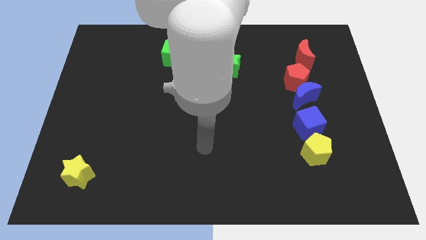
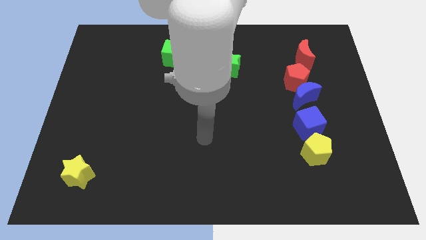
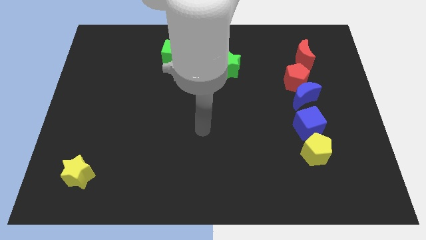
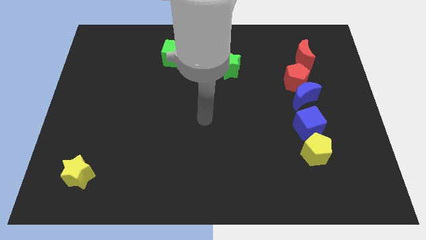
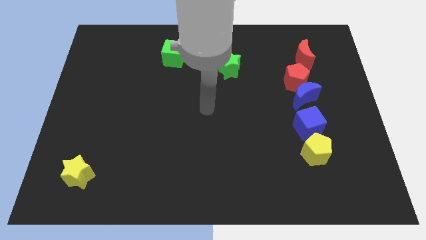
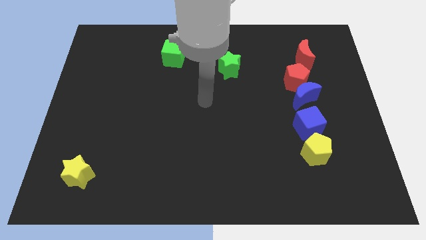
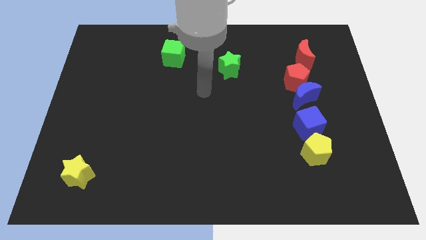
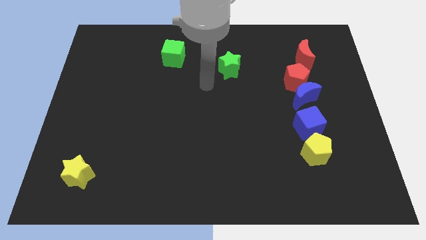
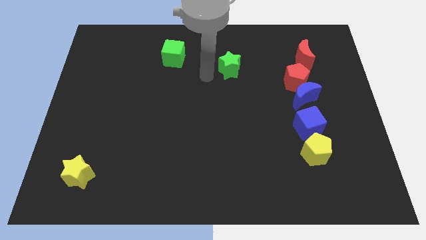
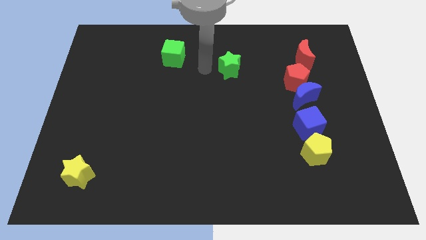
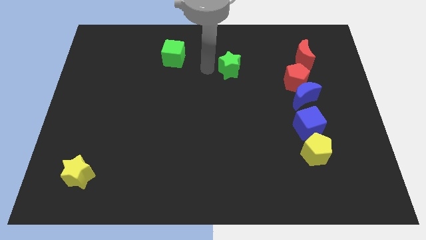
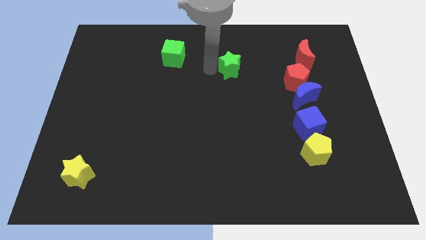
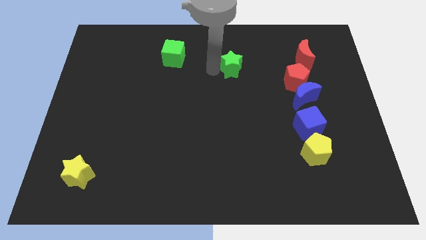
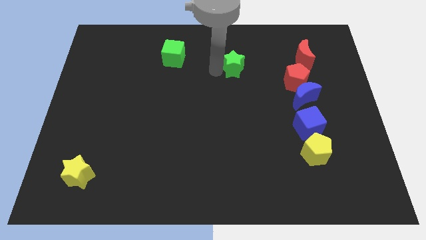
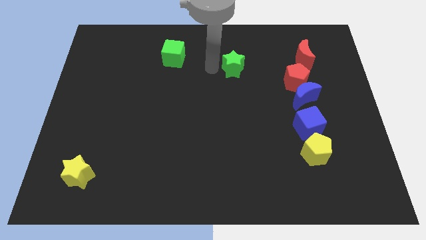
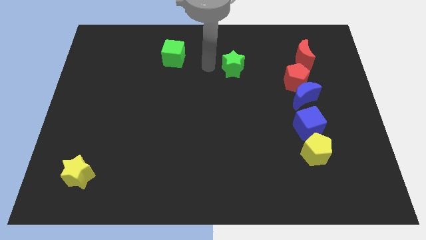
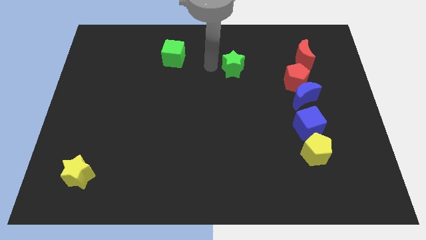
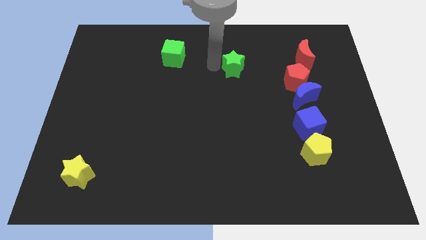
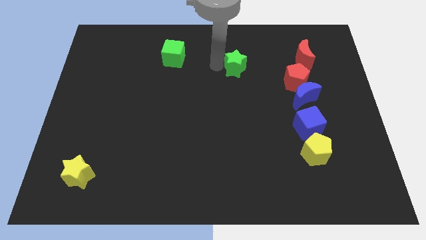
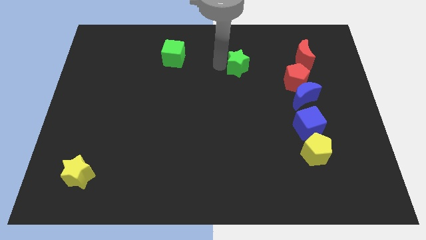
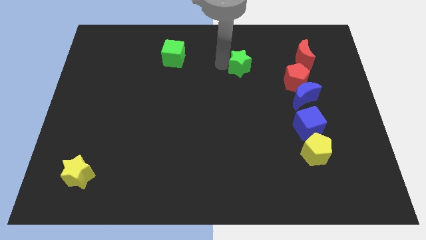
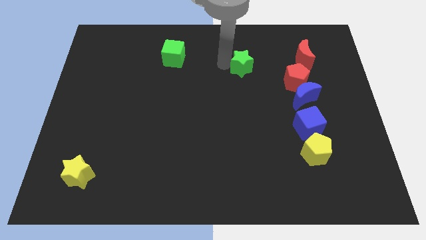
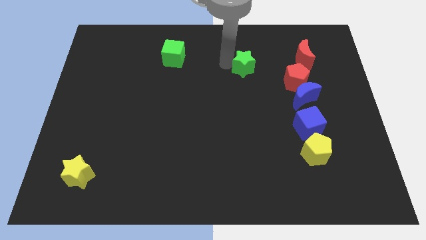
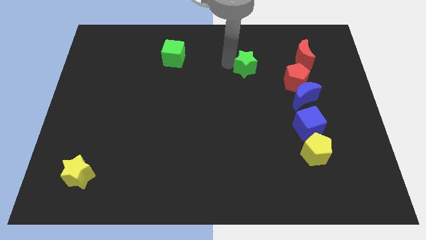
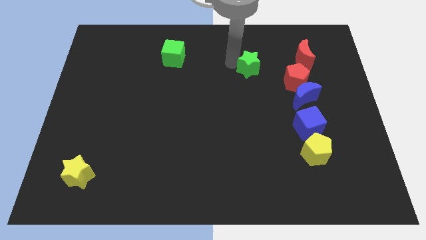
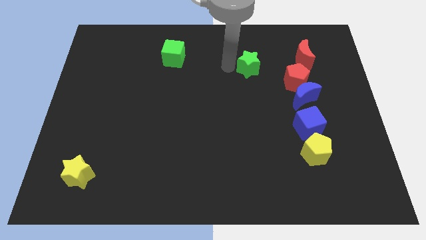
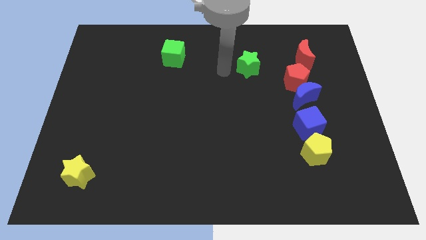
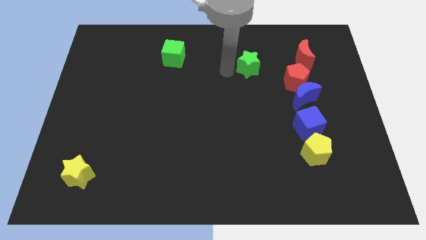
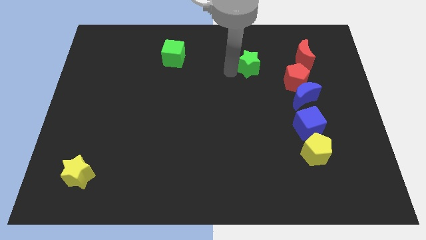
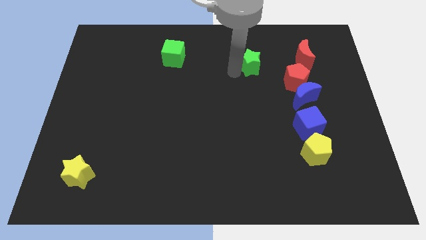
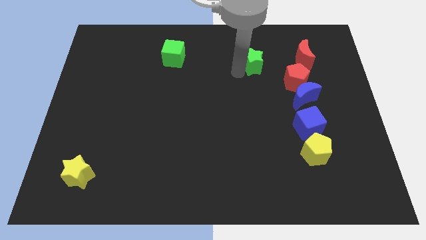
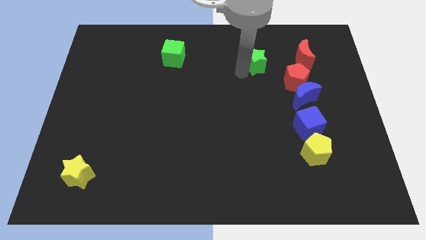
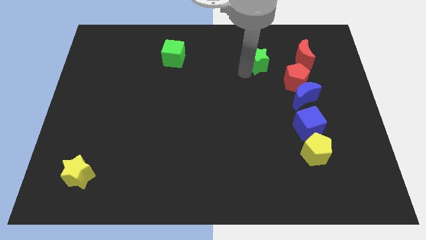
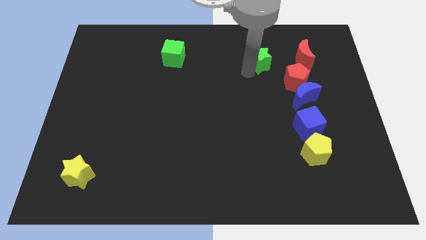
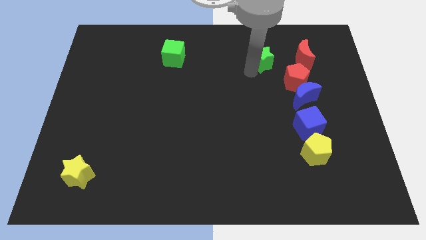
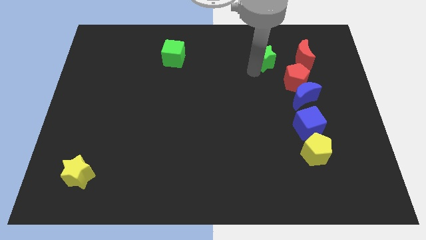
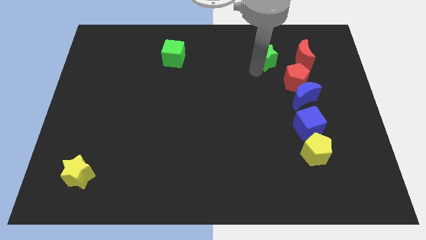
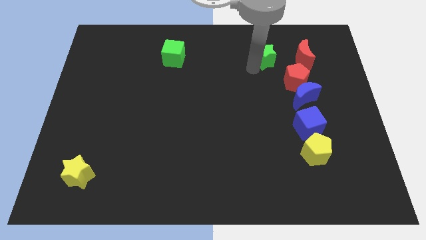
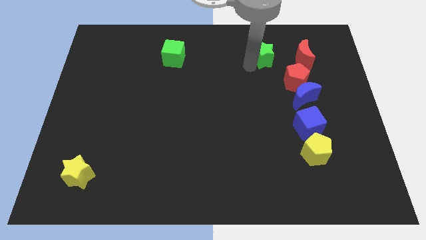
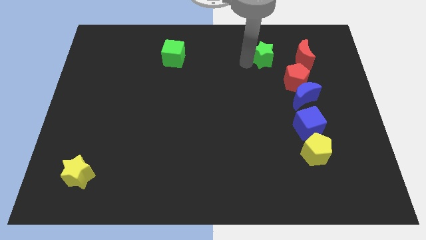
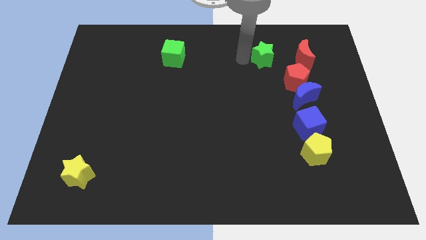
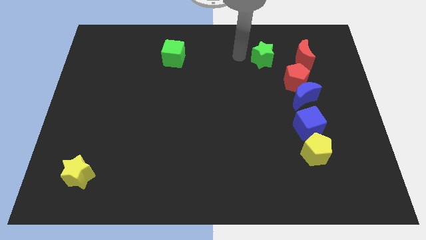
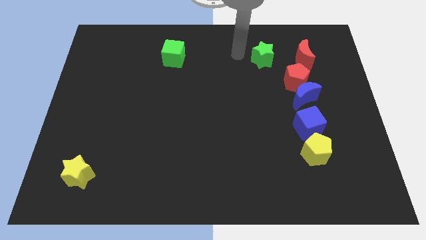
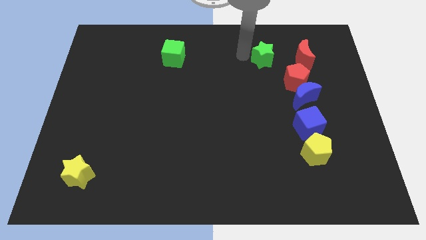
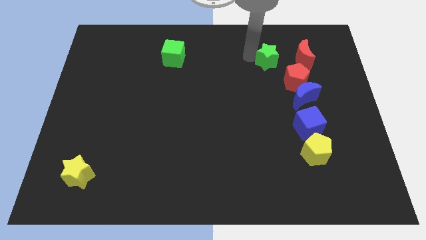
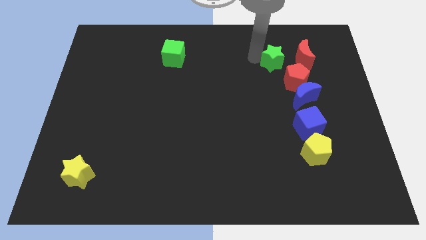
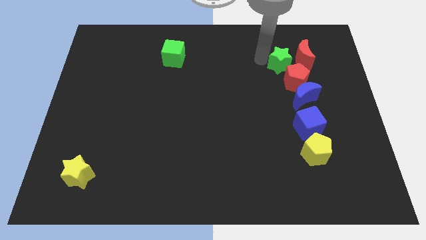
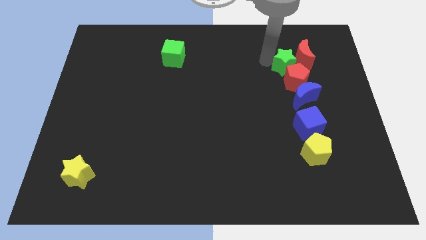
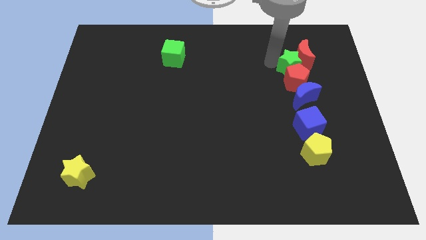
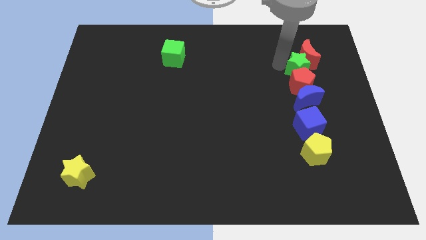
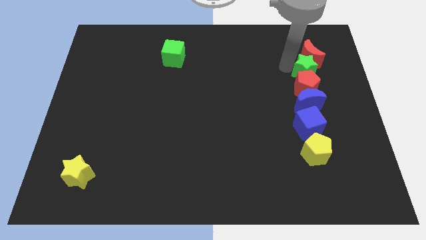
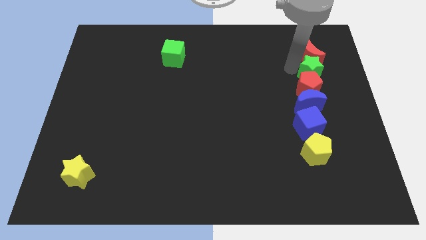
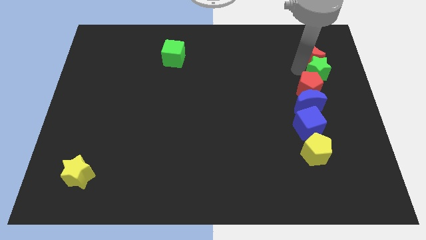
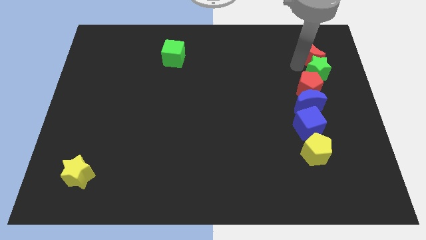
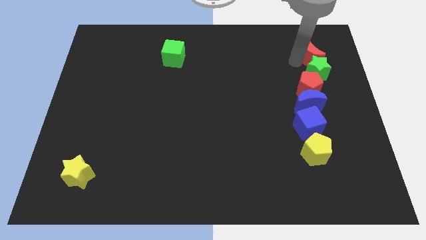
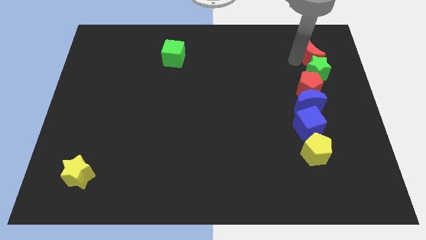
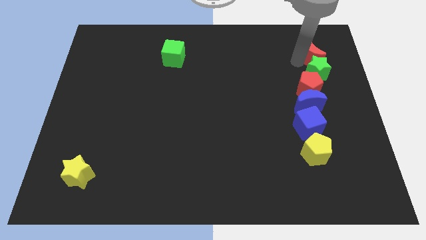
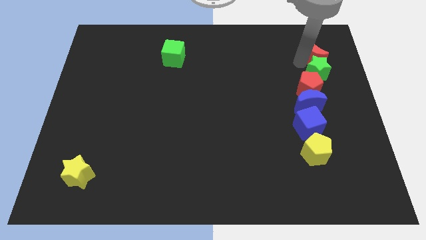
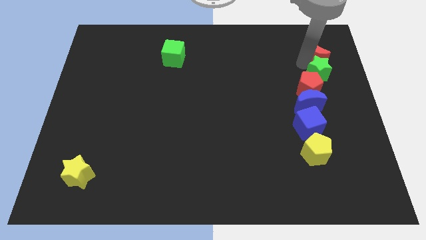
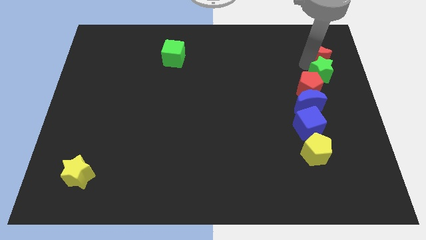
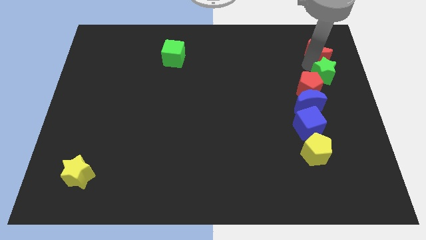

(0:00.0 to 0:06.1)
put the green star to the right side of the board
